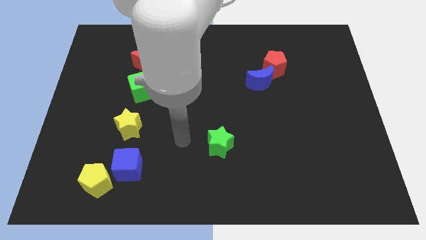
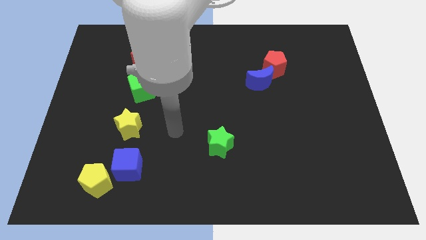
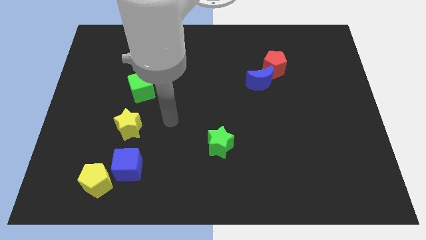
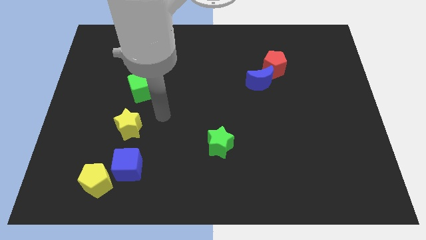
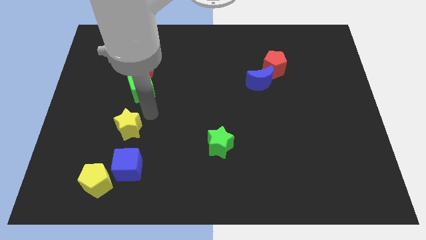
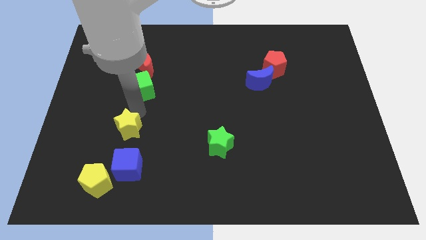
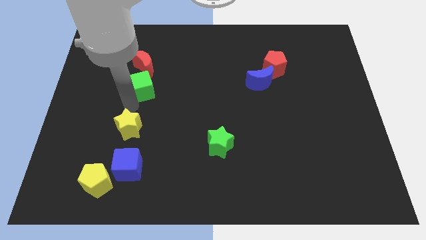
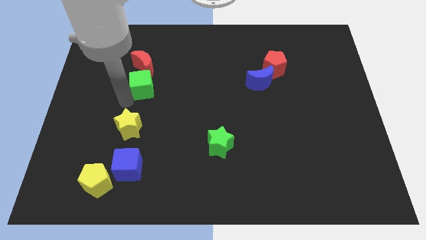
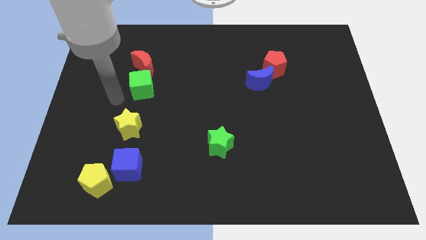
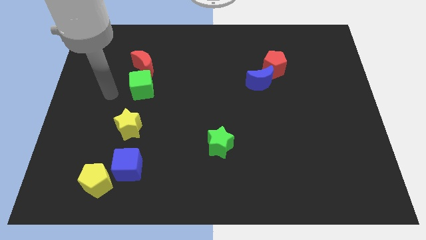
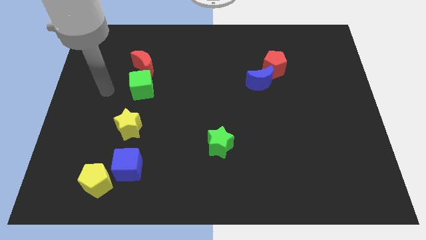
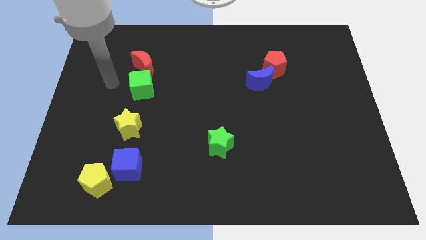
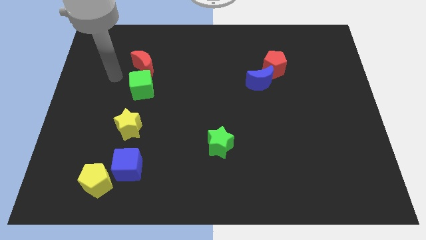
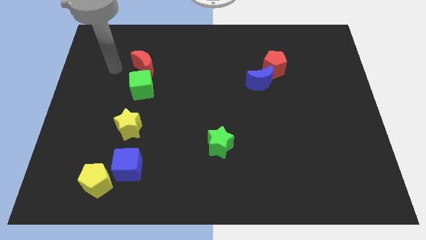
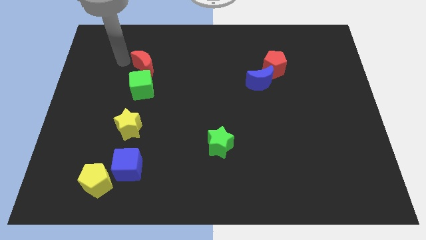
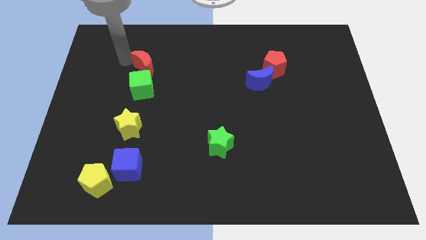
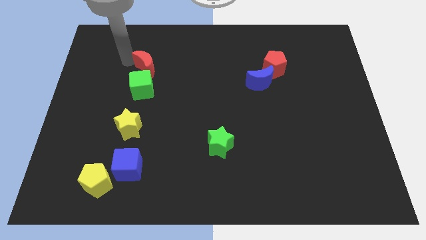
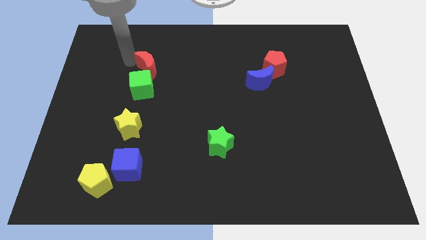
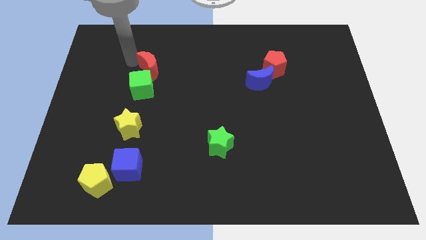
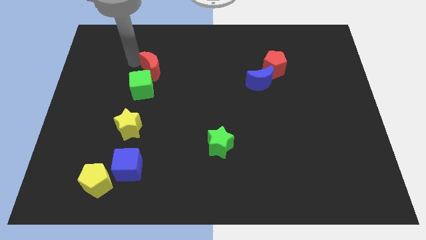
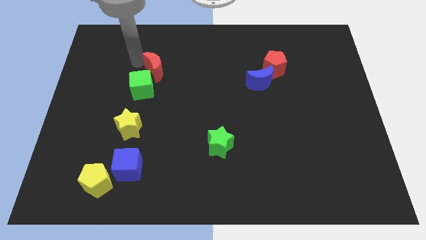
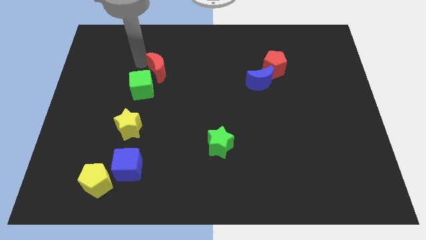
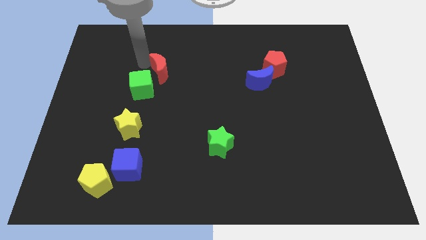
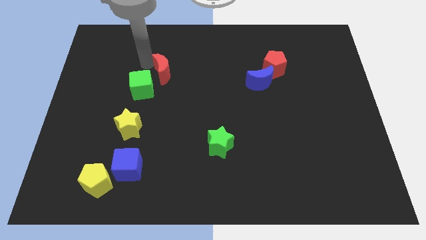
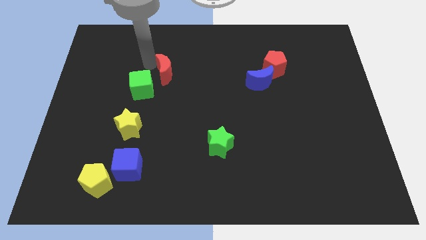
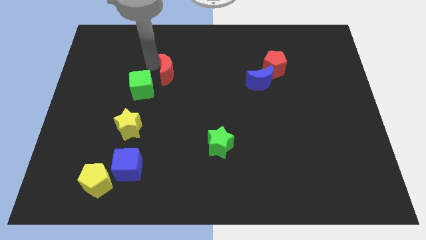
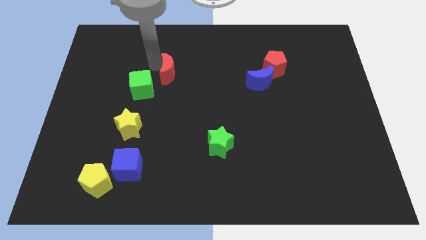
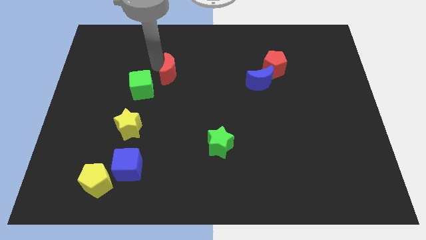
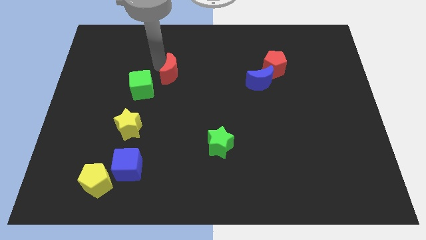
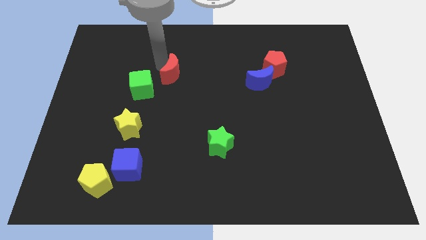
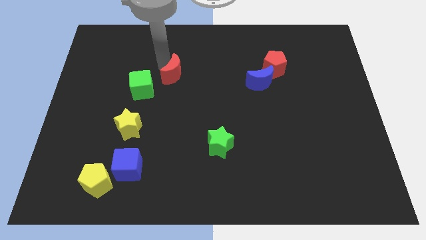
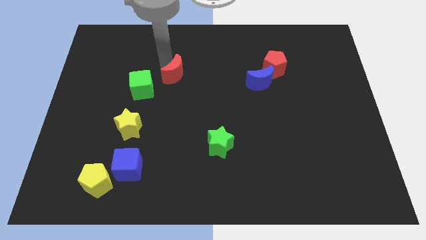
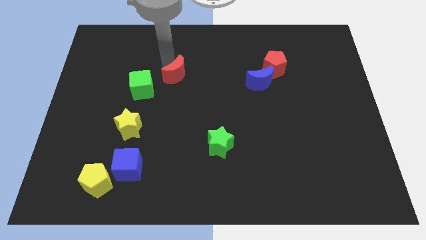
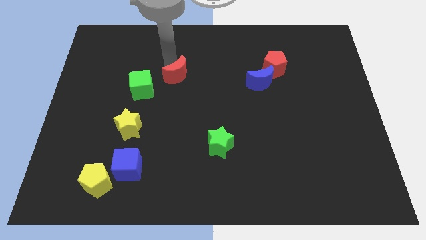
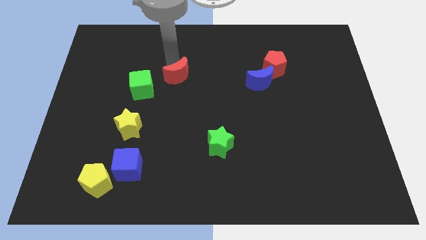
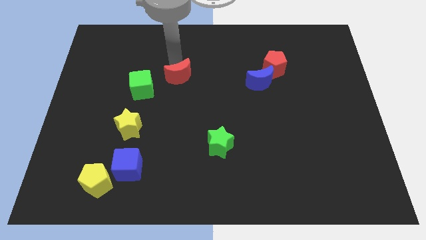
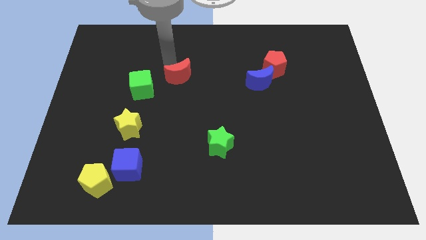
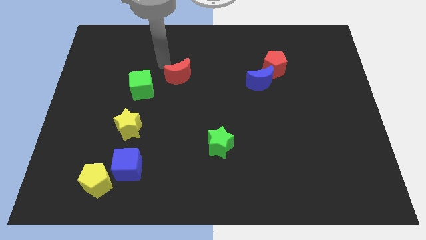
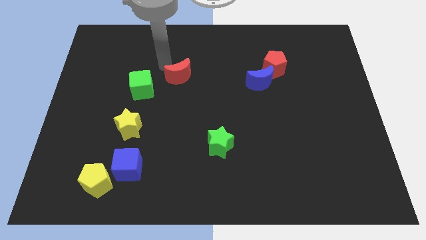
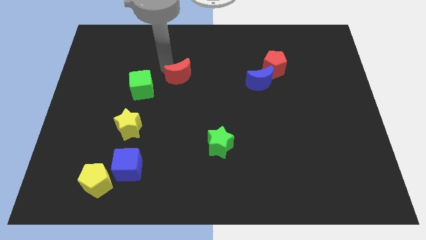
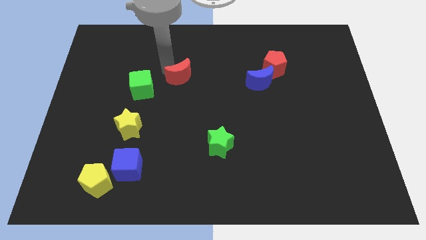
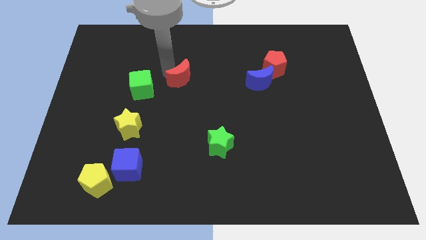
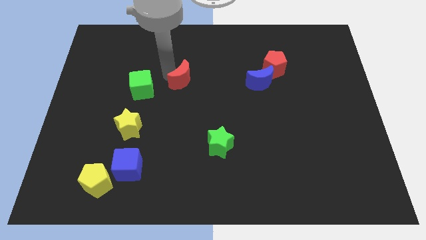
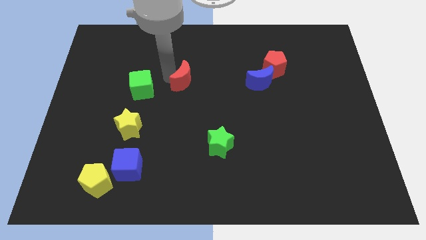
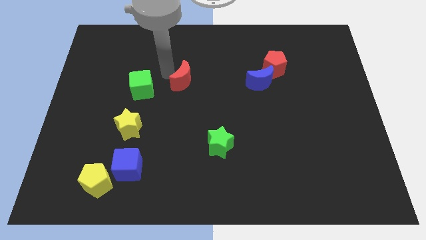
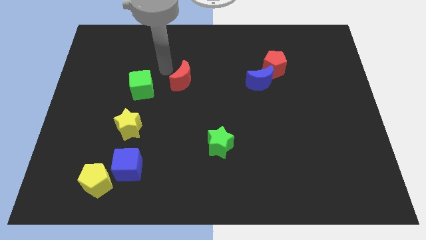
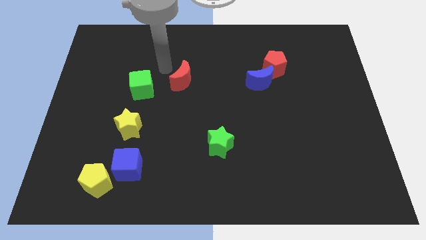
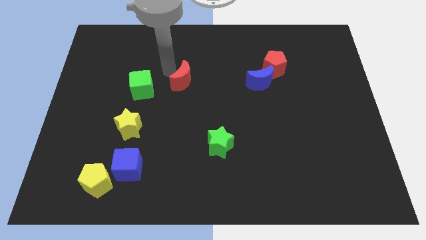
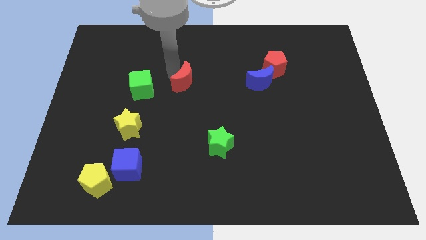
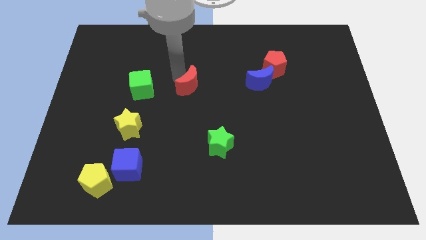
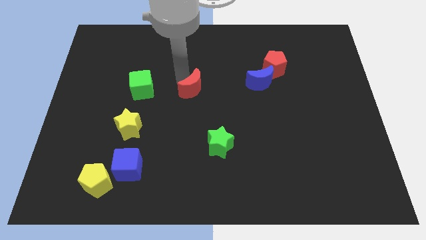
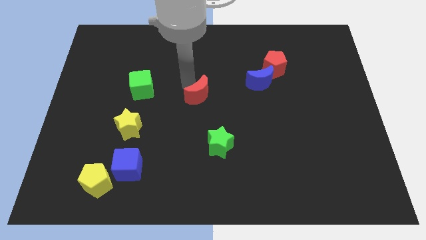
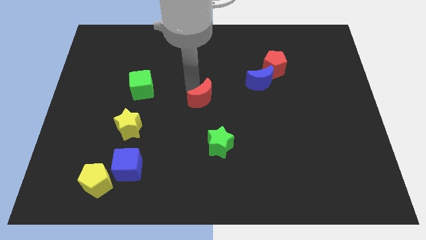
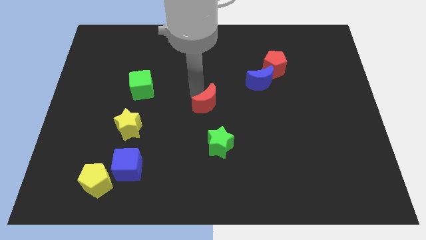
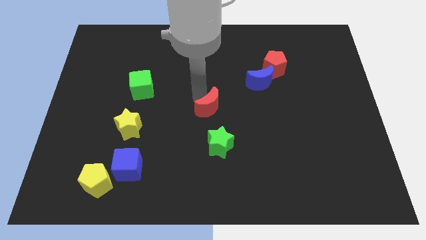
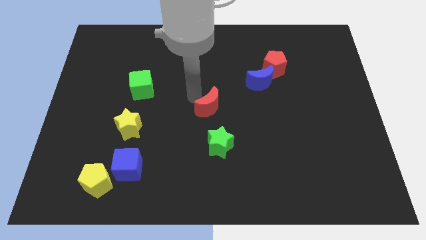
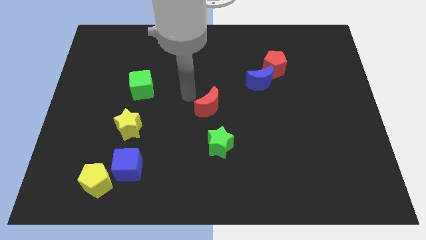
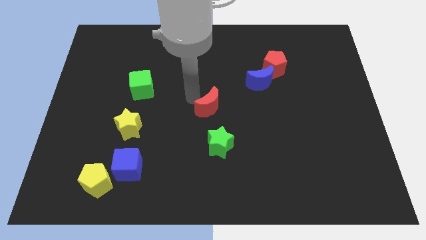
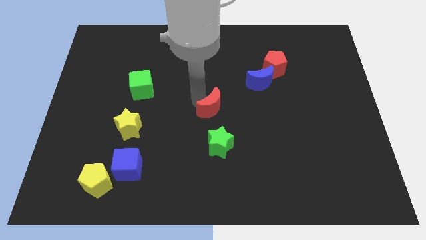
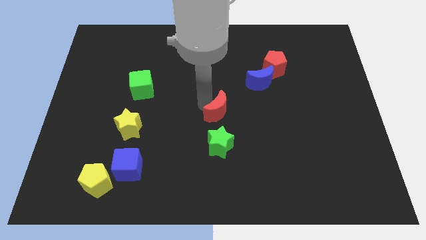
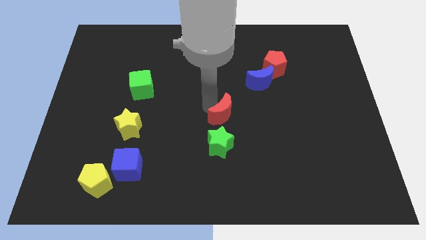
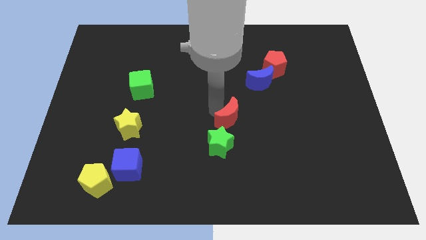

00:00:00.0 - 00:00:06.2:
move the red moon diagonally up and to the right of the green star

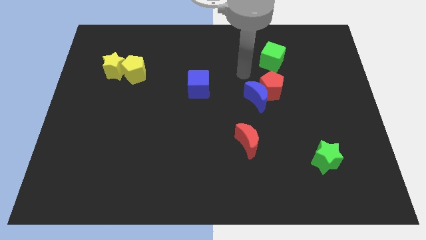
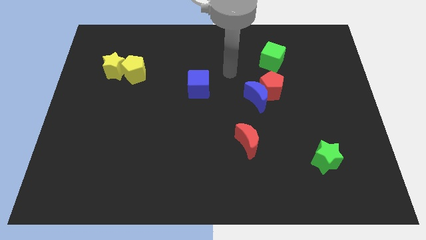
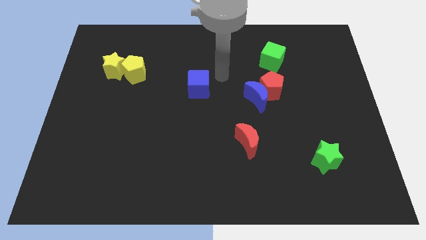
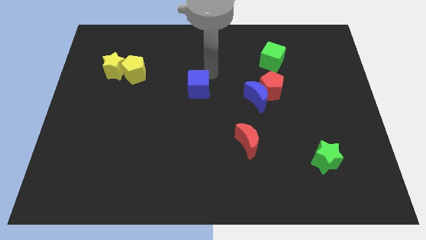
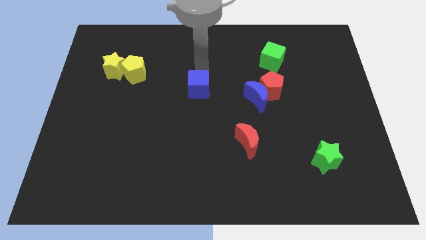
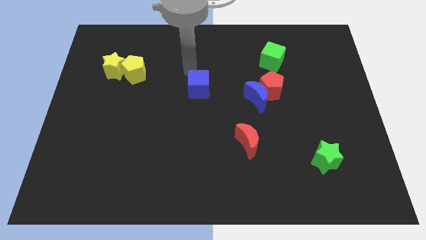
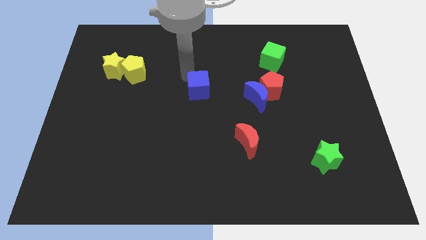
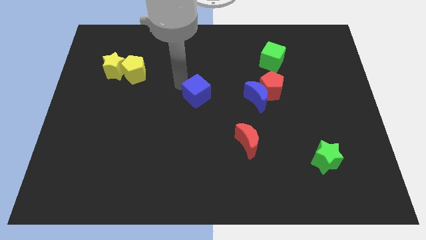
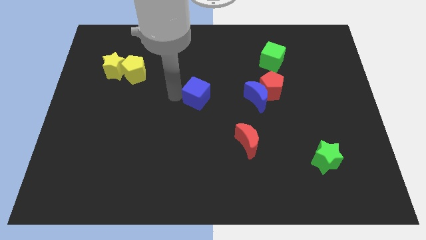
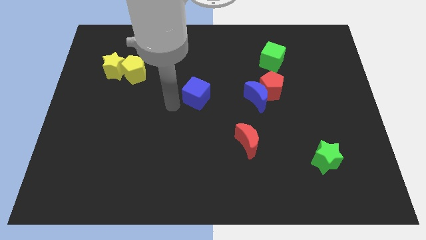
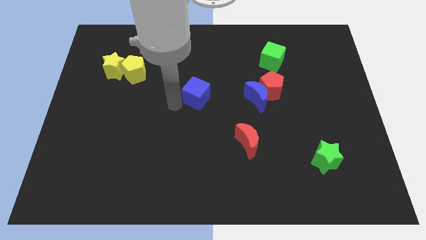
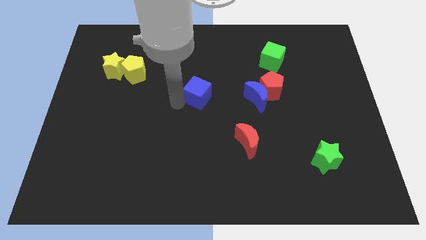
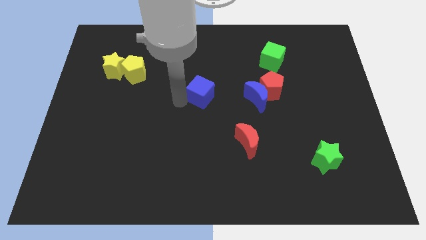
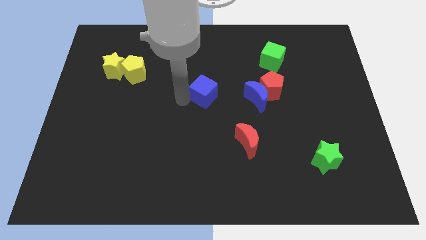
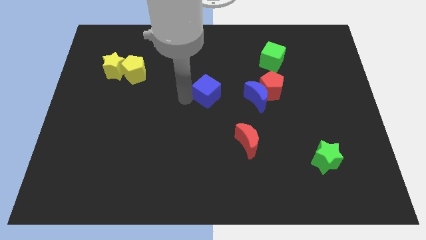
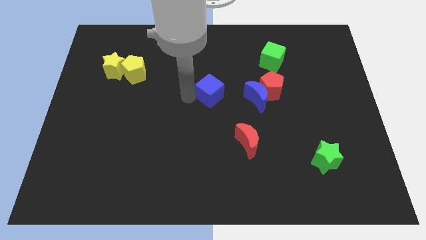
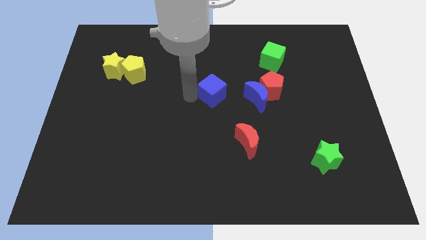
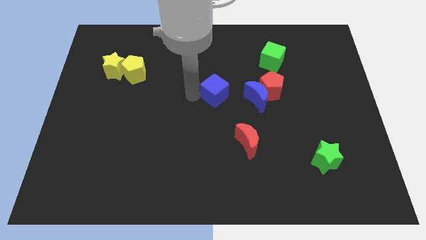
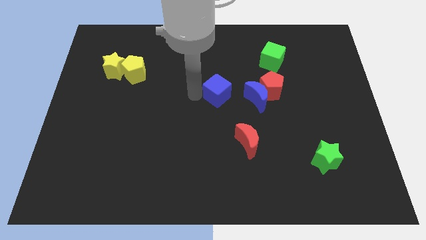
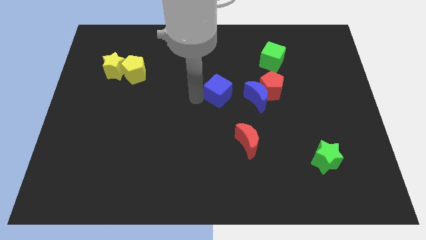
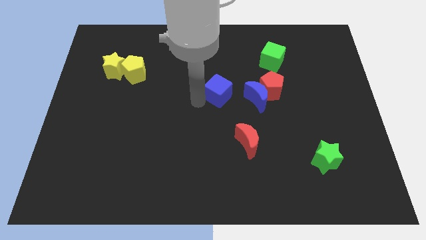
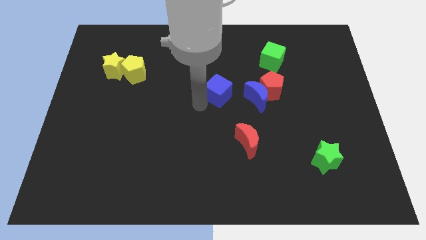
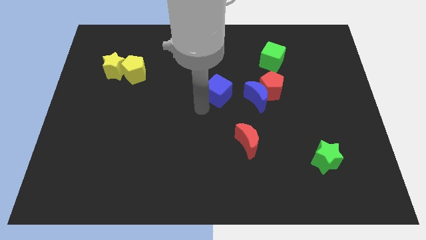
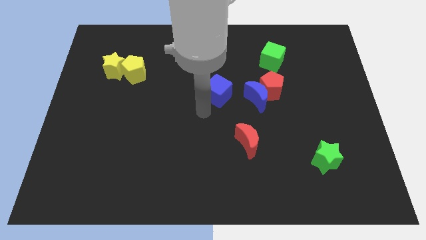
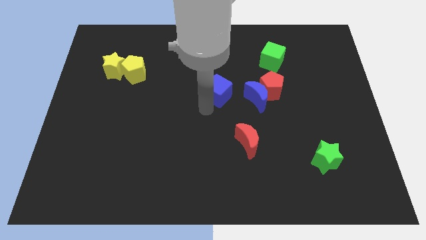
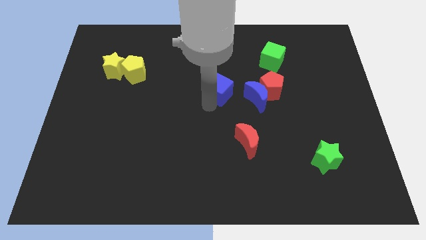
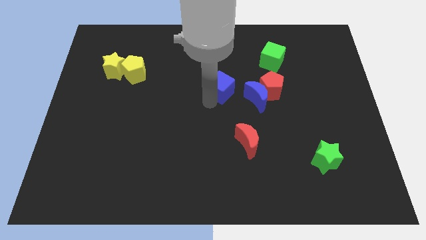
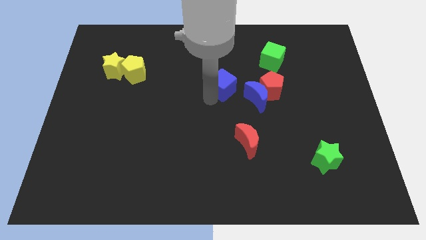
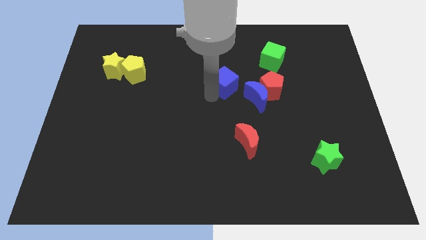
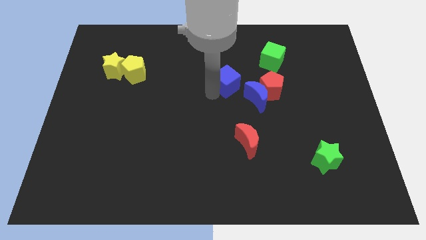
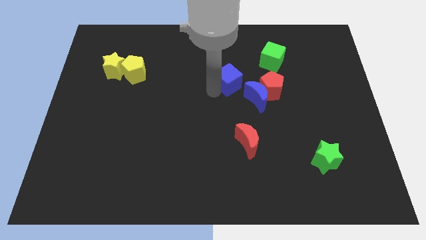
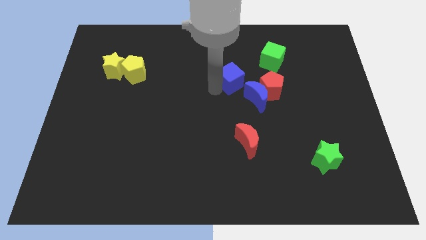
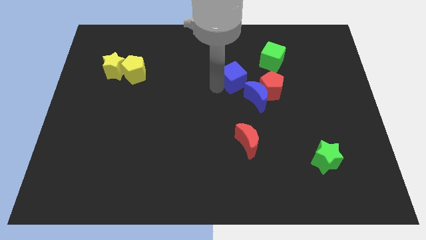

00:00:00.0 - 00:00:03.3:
slide the blue cube to the top left of the red pentagon
